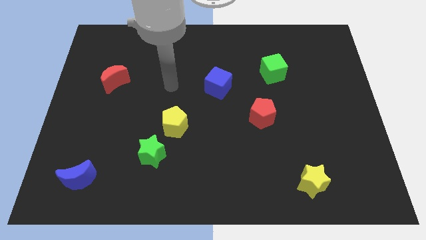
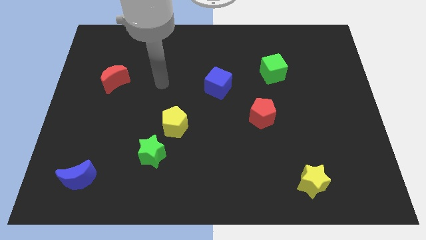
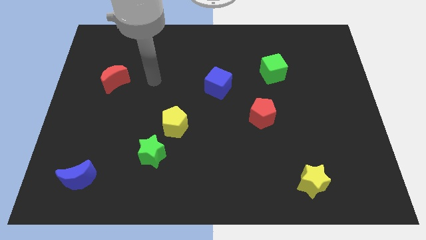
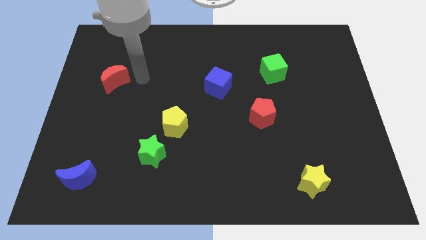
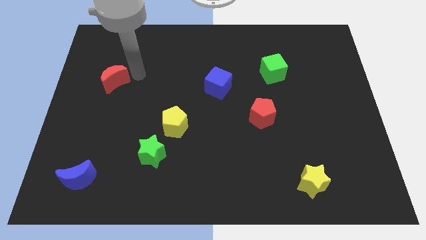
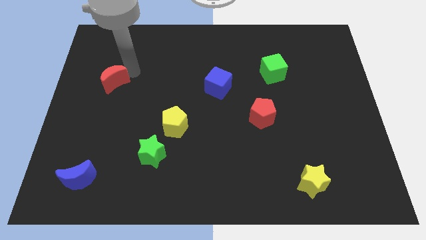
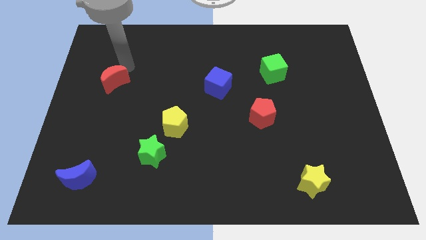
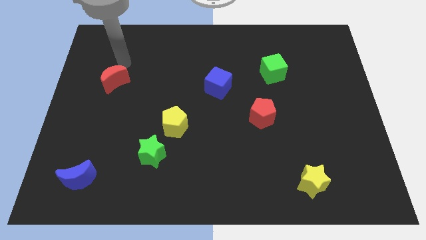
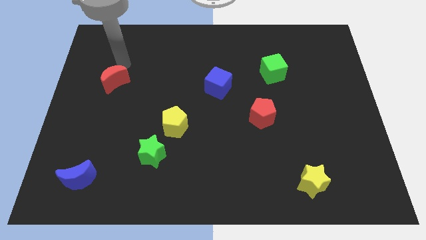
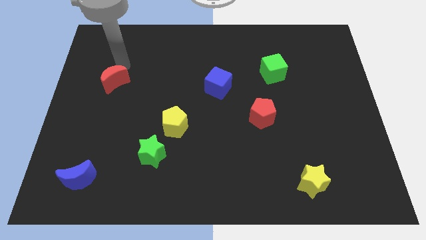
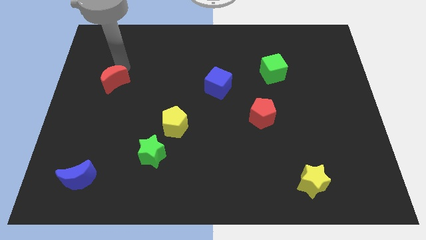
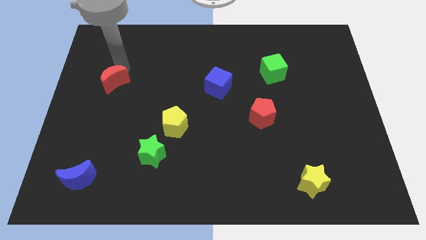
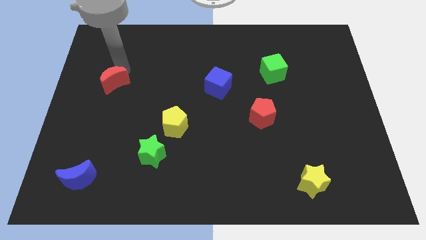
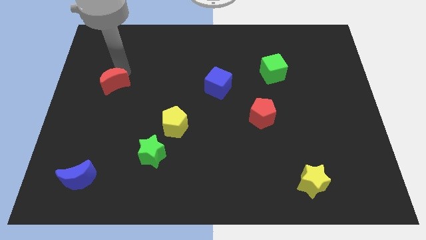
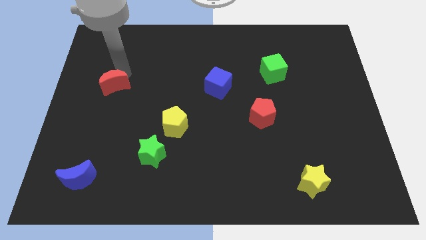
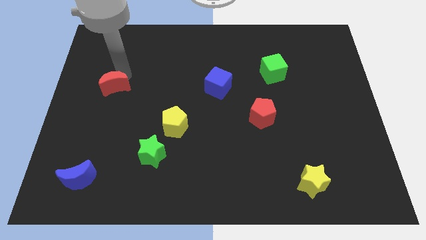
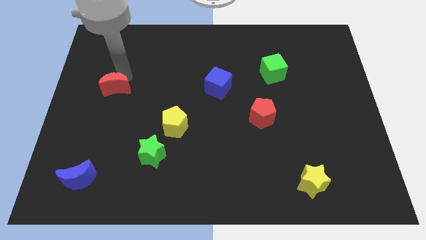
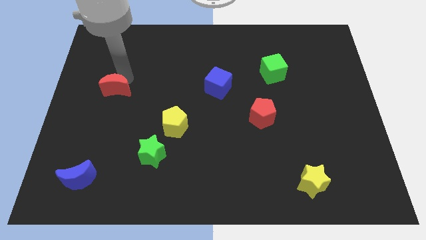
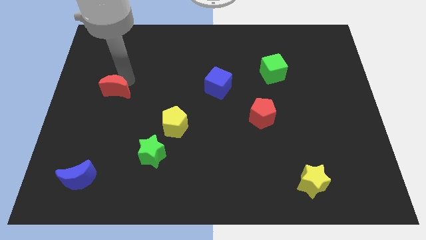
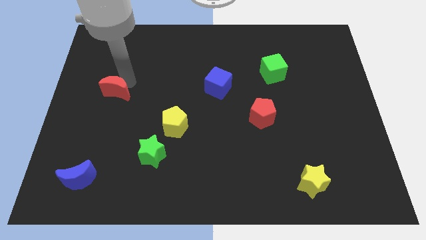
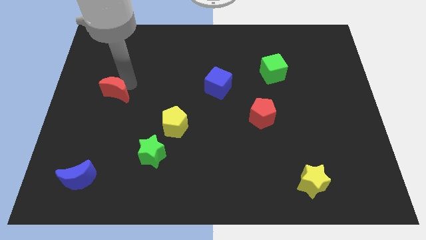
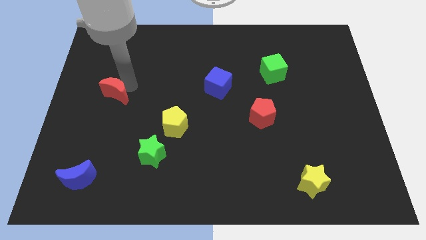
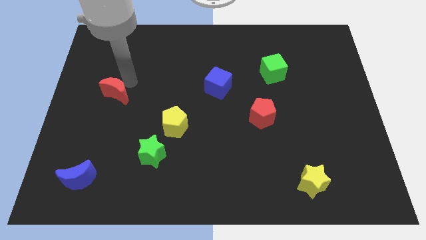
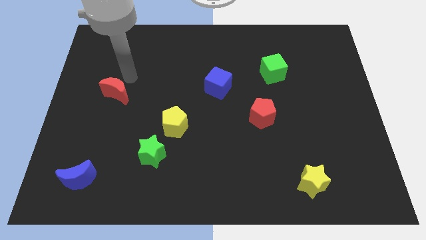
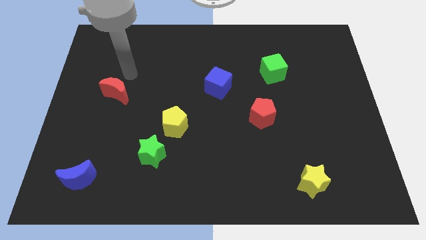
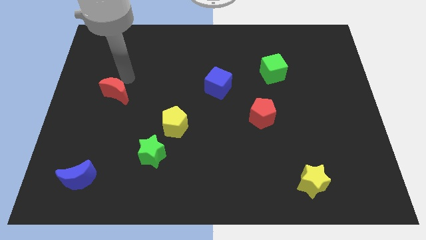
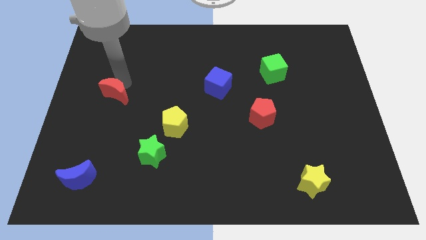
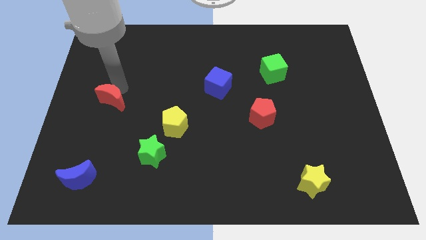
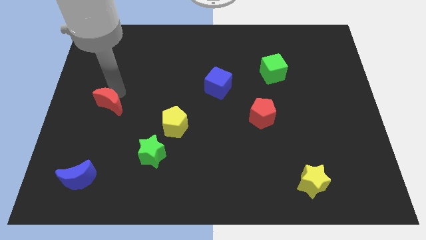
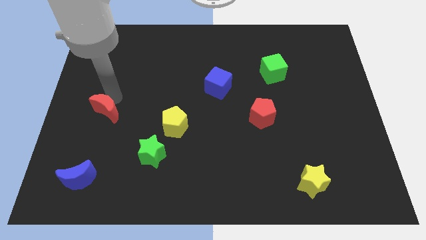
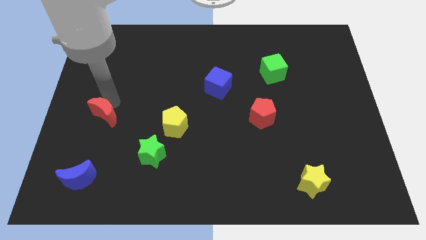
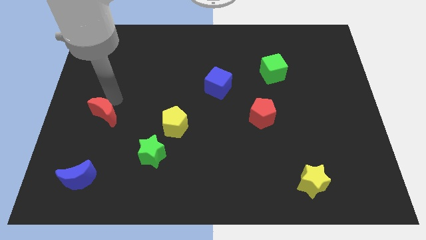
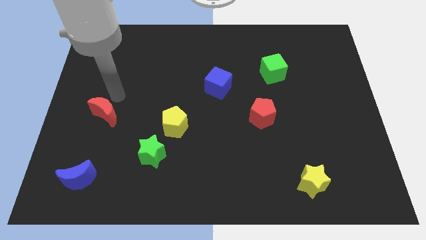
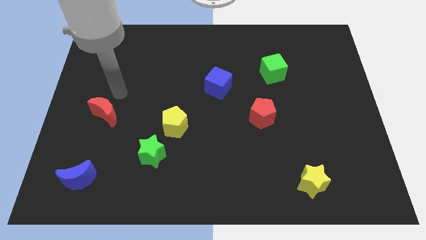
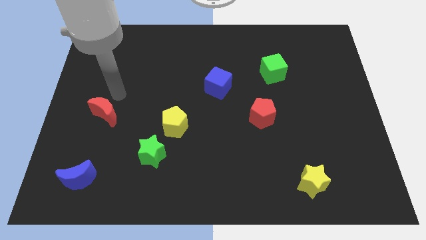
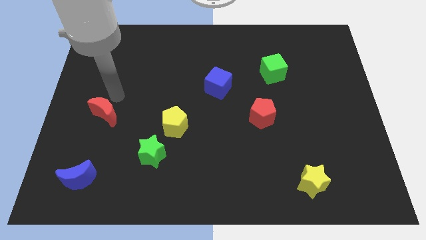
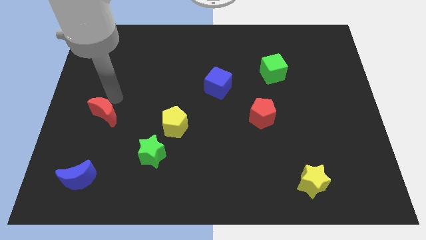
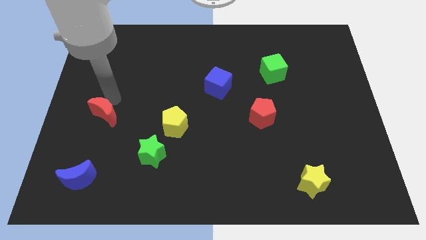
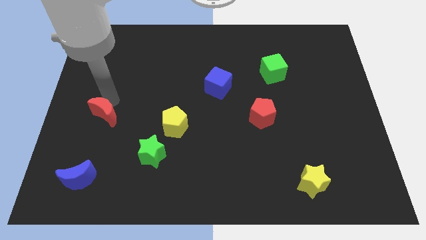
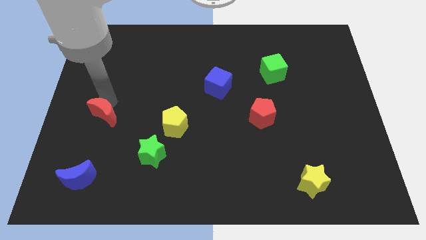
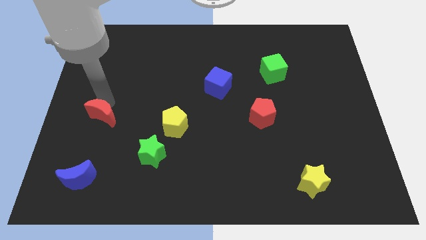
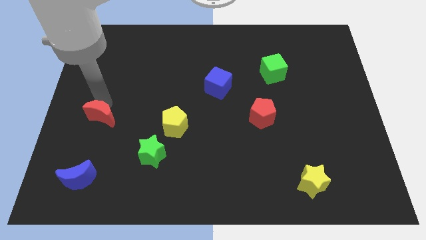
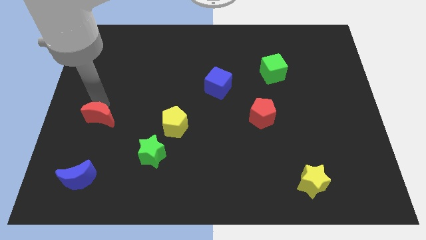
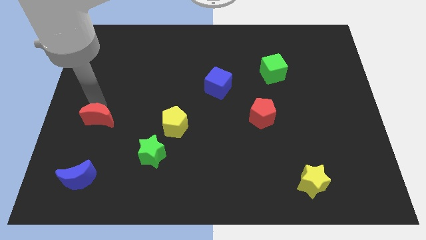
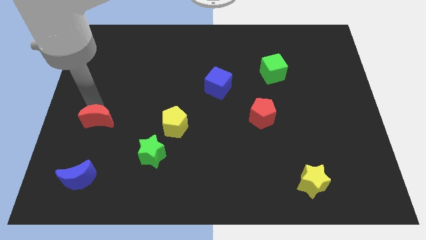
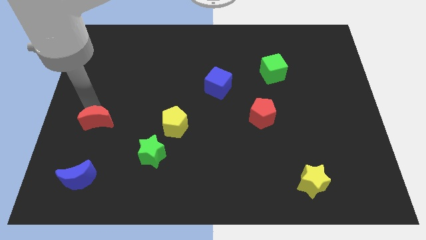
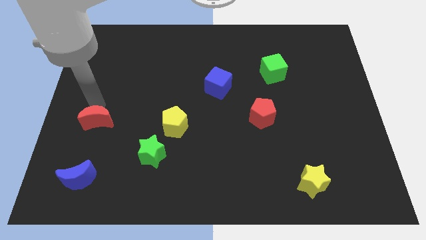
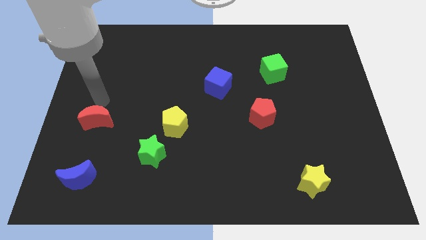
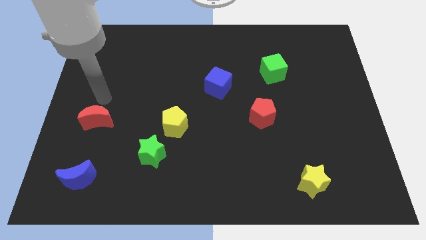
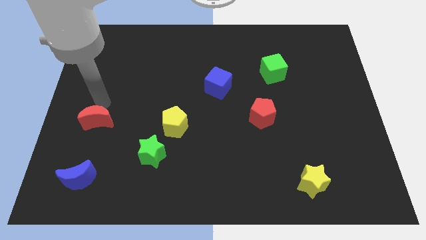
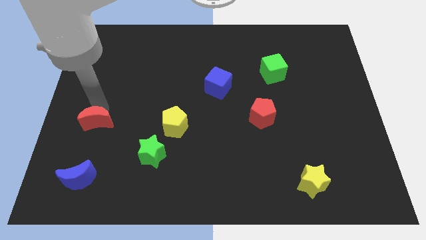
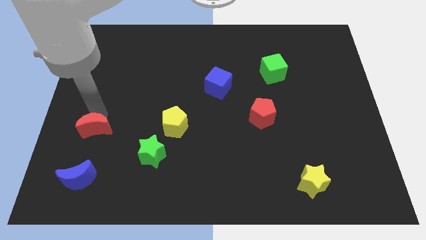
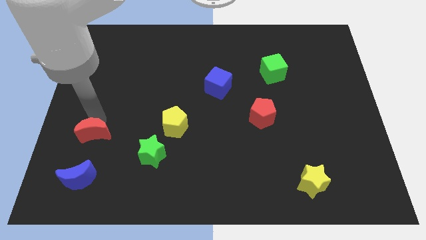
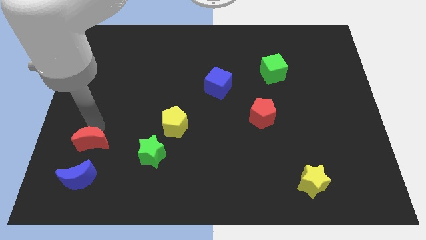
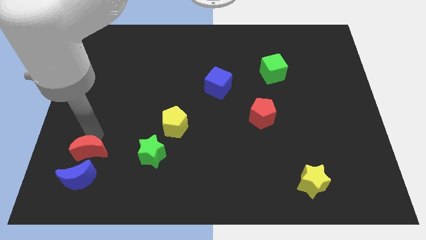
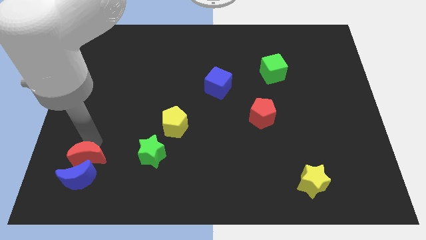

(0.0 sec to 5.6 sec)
move the red moon to the blue moon

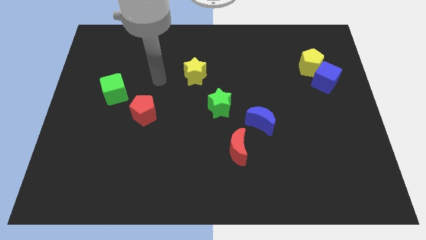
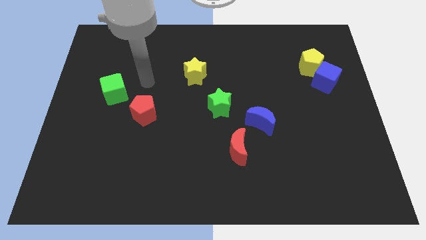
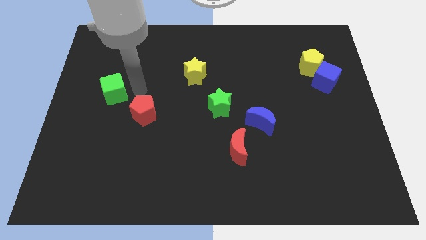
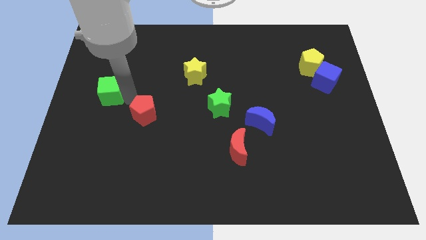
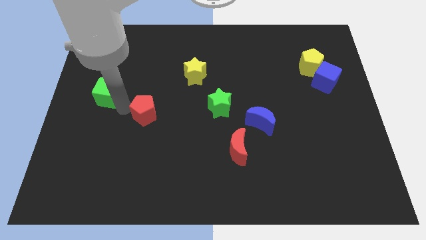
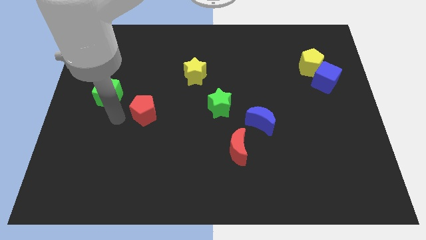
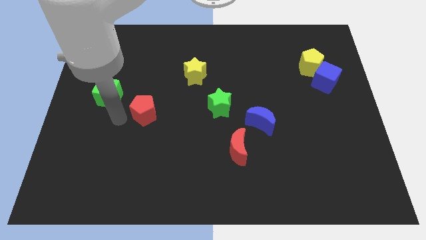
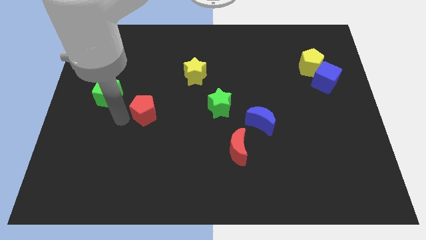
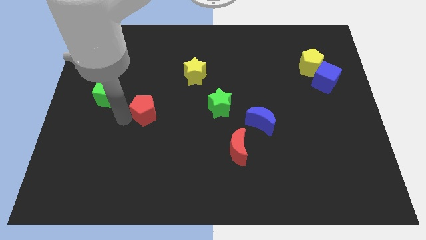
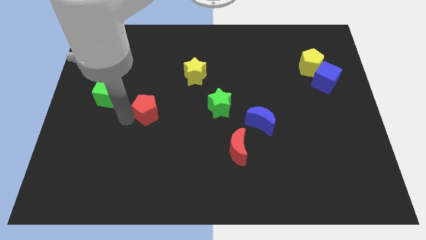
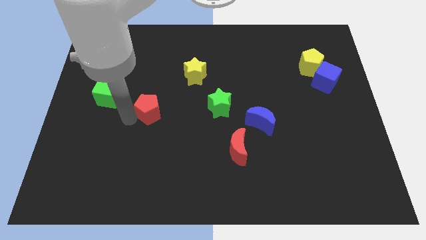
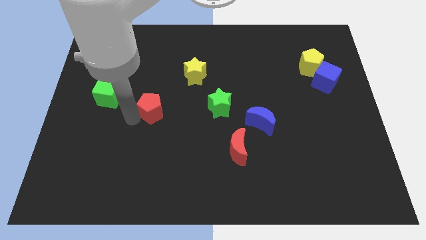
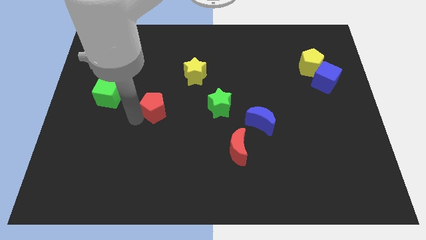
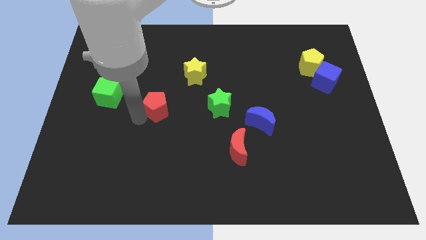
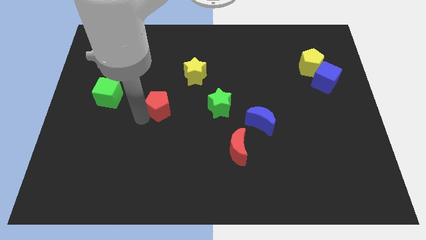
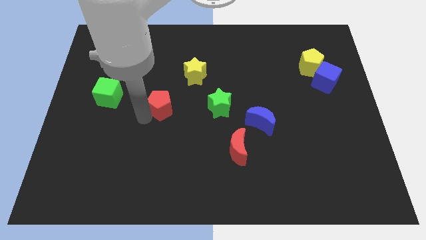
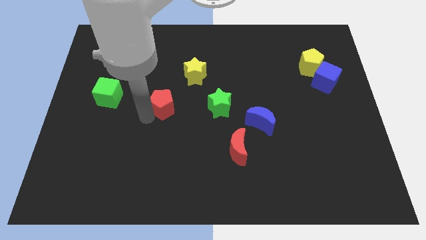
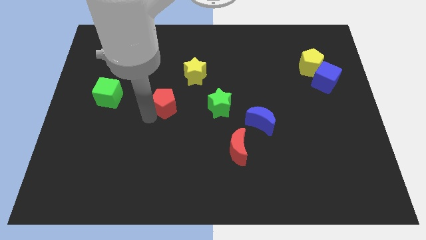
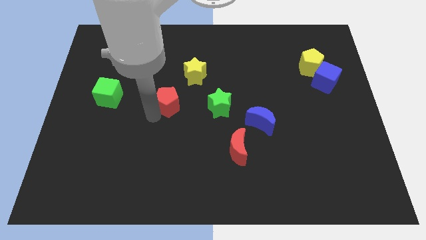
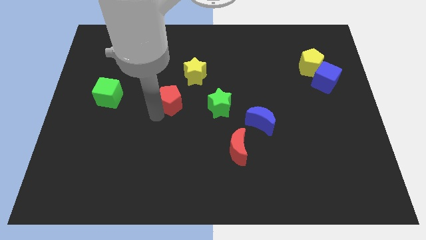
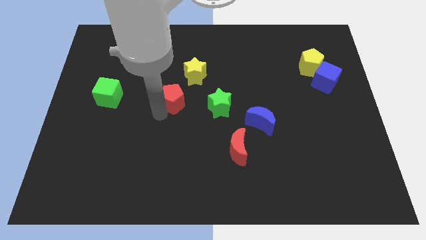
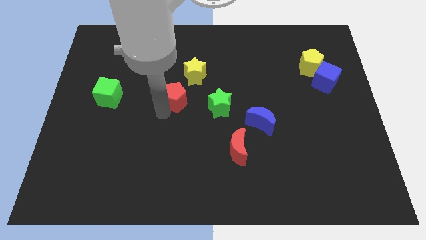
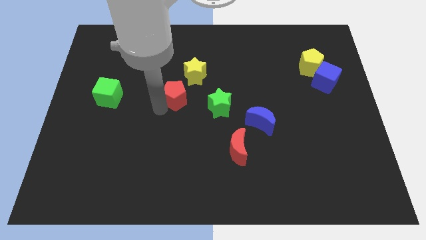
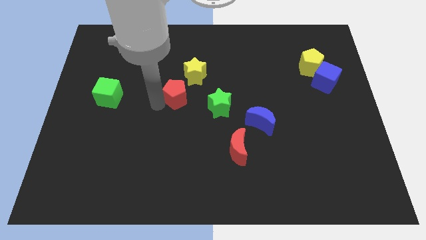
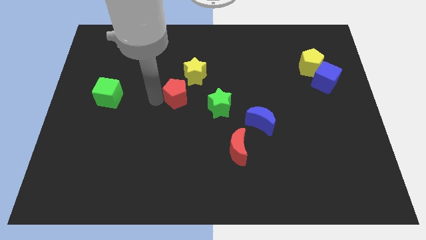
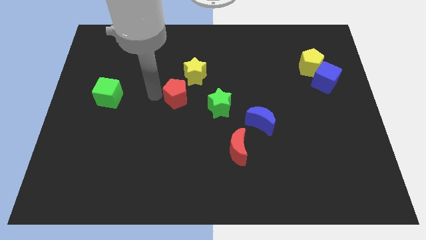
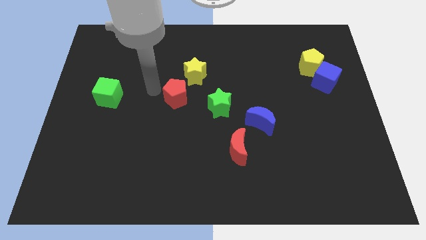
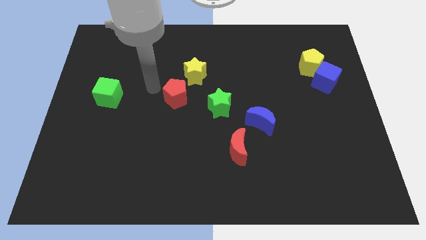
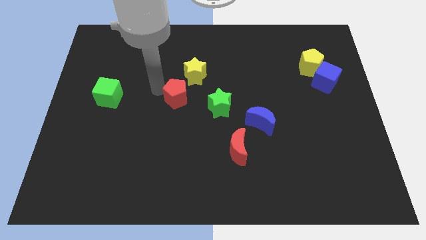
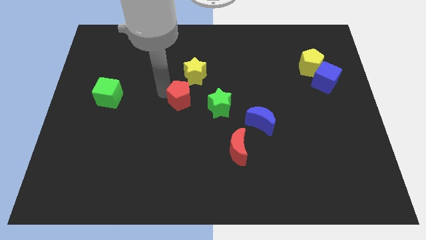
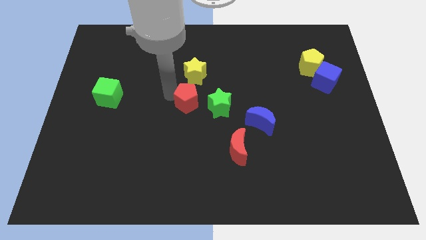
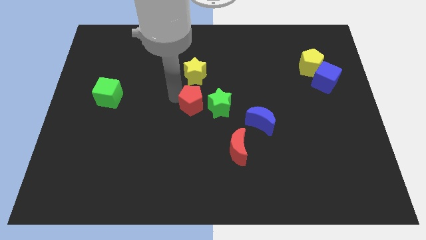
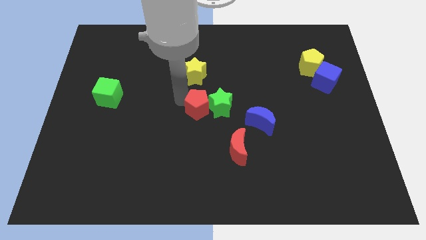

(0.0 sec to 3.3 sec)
move the red pentagon next to the green star
